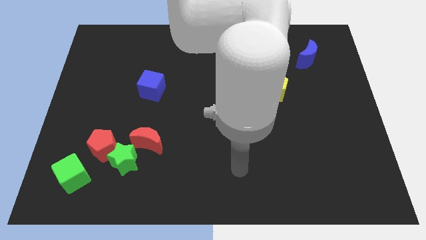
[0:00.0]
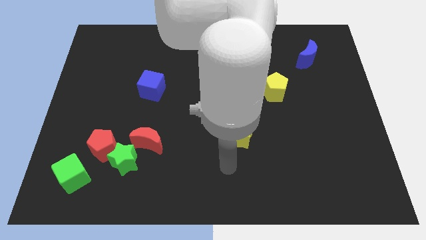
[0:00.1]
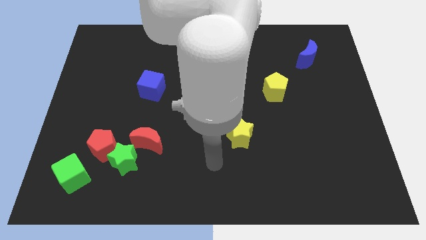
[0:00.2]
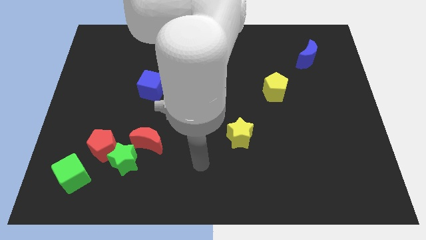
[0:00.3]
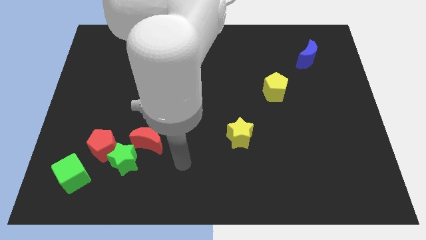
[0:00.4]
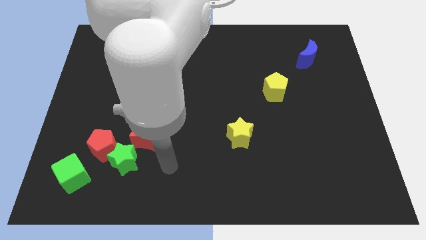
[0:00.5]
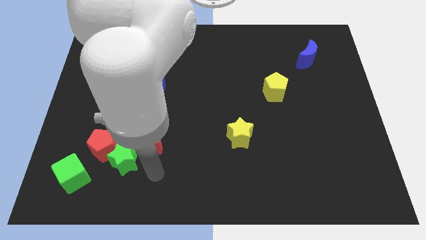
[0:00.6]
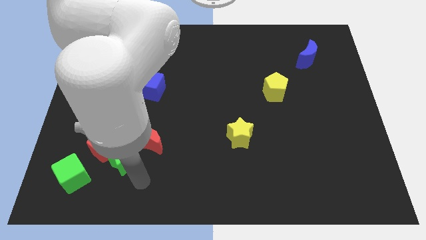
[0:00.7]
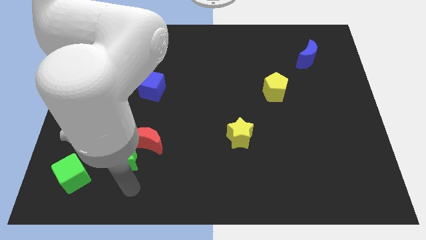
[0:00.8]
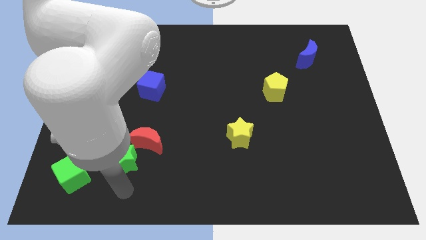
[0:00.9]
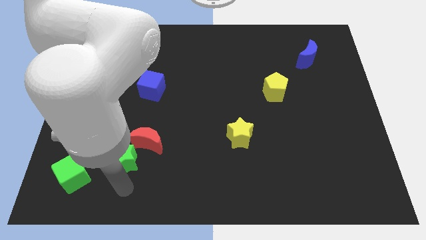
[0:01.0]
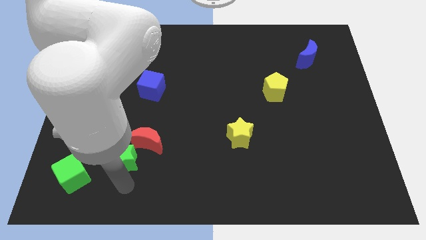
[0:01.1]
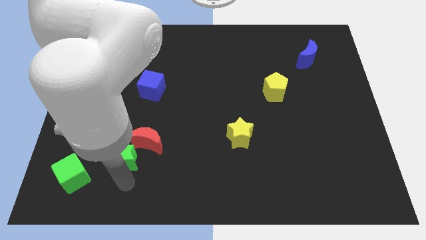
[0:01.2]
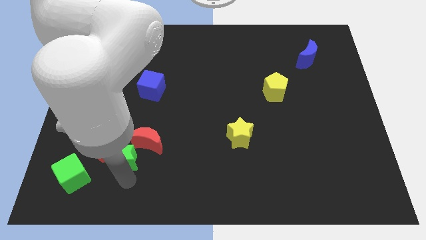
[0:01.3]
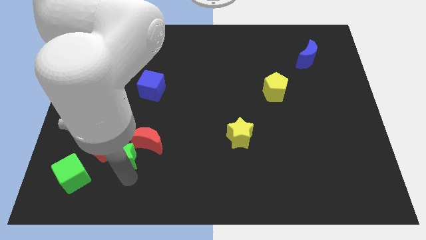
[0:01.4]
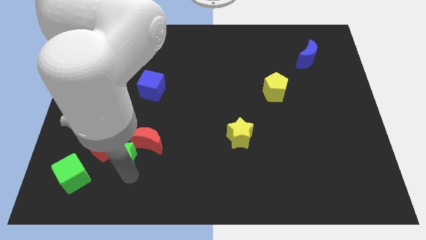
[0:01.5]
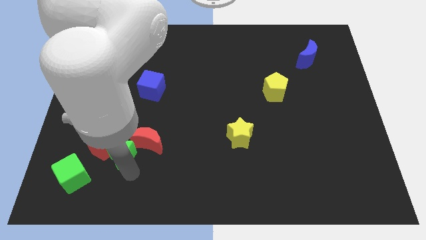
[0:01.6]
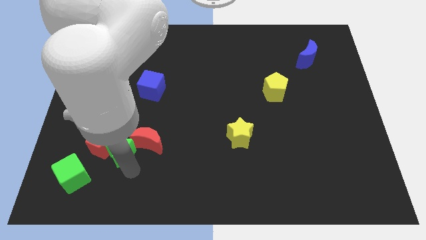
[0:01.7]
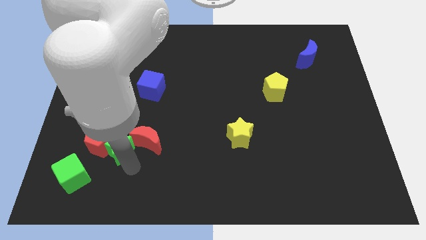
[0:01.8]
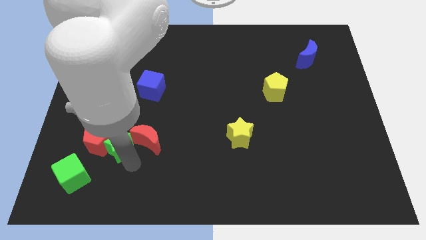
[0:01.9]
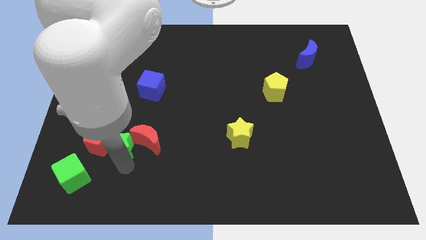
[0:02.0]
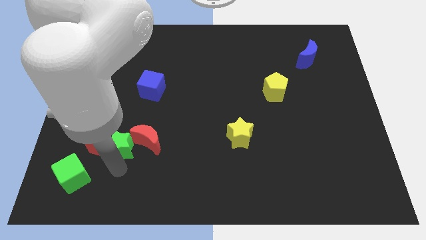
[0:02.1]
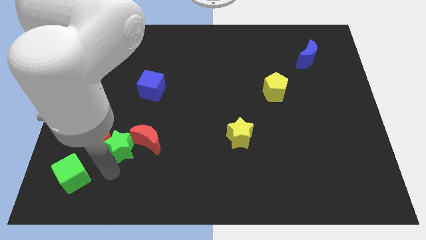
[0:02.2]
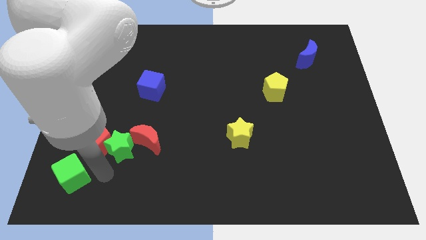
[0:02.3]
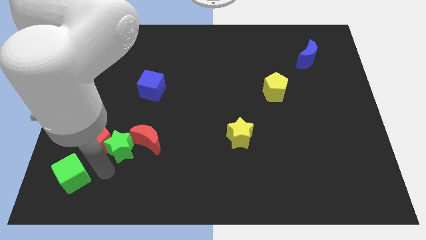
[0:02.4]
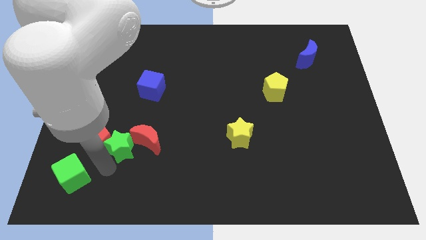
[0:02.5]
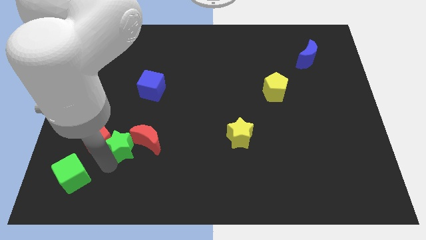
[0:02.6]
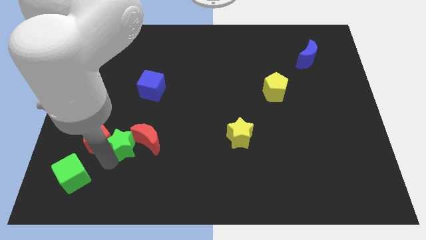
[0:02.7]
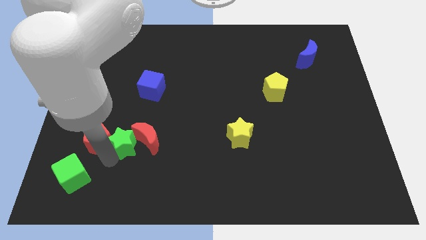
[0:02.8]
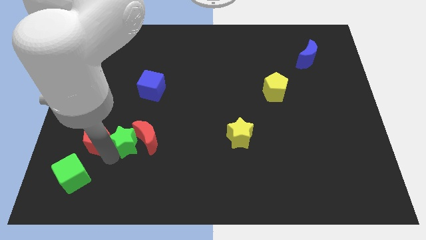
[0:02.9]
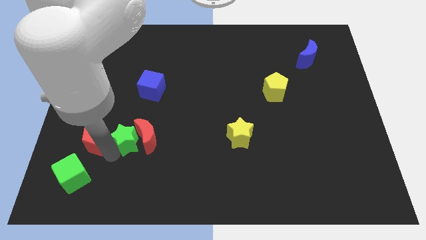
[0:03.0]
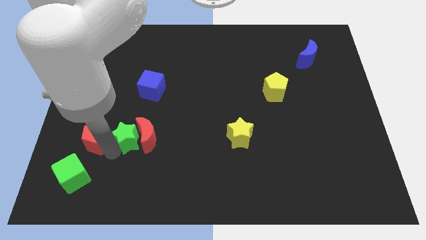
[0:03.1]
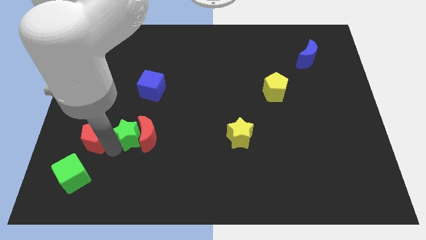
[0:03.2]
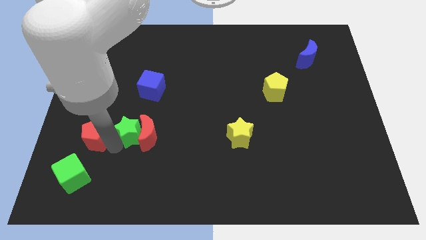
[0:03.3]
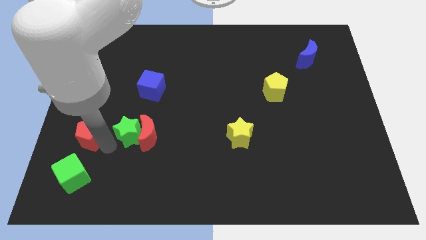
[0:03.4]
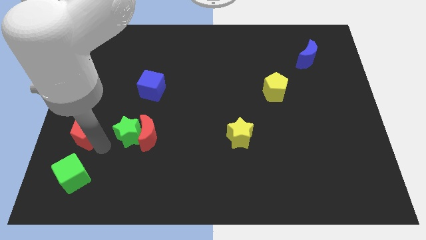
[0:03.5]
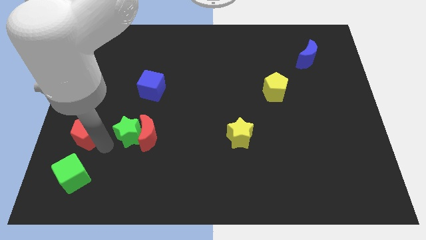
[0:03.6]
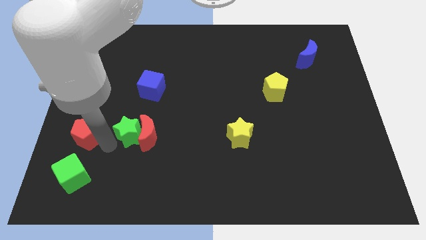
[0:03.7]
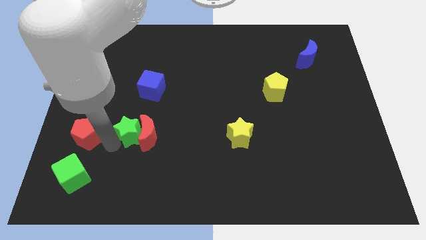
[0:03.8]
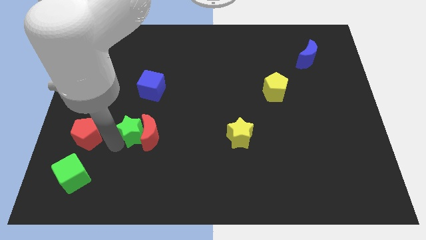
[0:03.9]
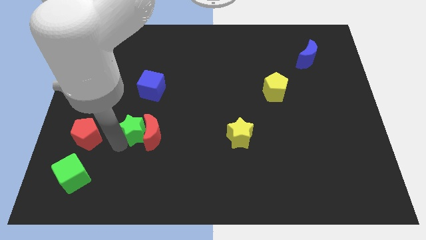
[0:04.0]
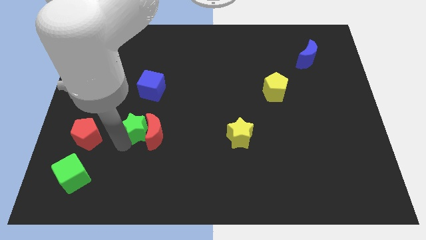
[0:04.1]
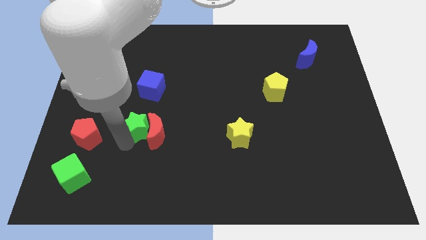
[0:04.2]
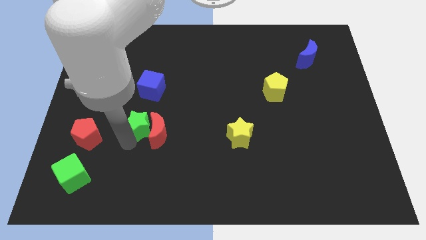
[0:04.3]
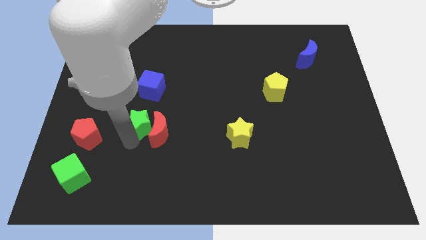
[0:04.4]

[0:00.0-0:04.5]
push the green star up and then right somewhat

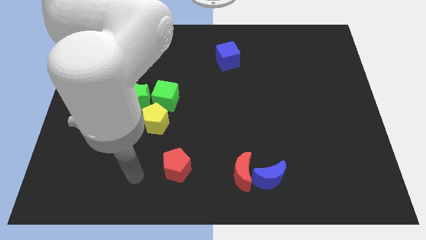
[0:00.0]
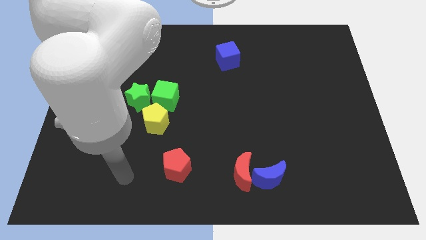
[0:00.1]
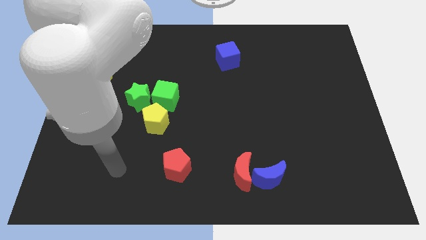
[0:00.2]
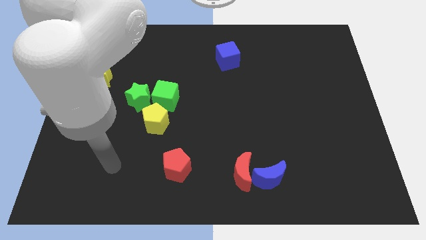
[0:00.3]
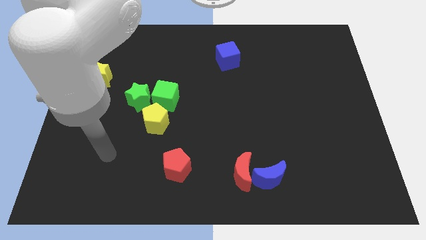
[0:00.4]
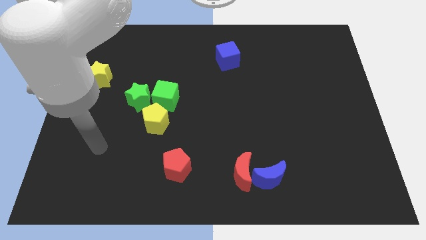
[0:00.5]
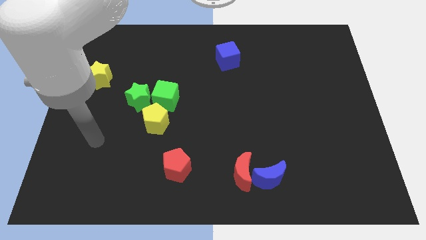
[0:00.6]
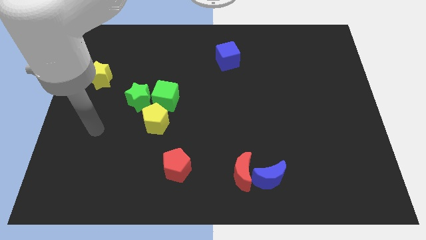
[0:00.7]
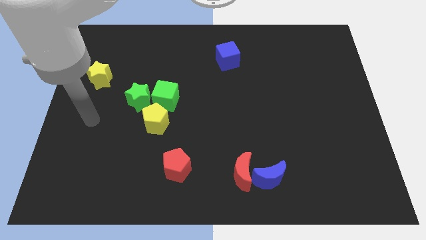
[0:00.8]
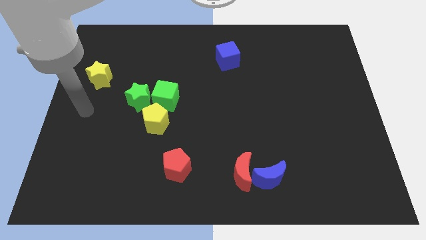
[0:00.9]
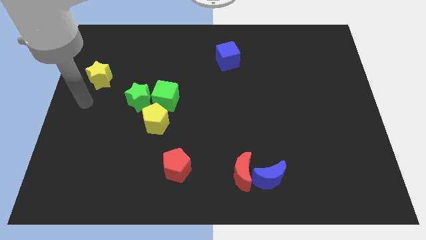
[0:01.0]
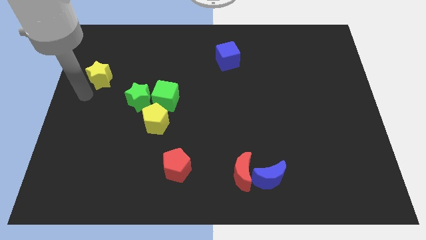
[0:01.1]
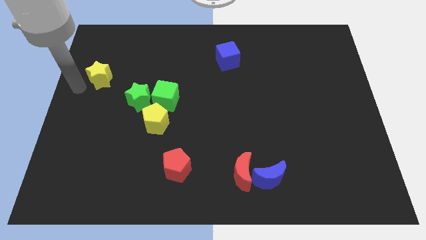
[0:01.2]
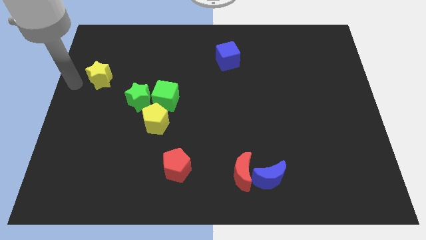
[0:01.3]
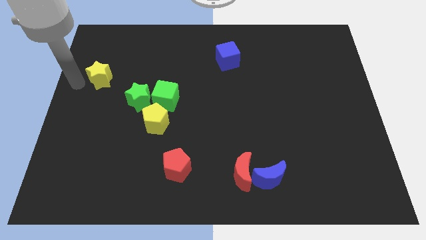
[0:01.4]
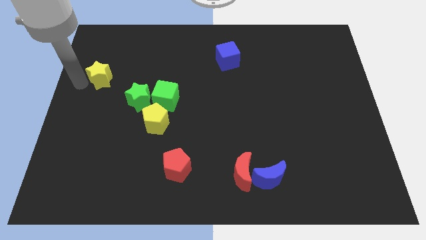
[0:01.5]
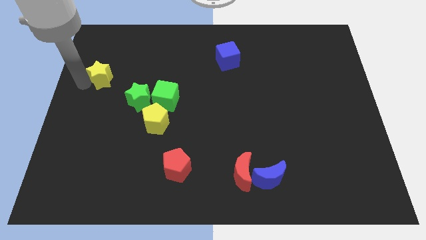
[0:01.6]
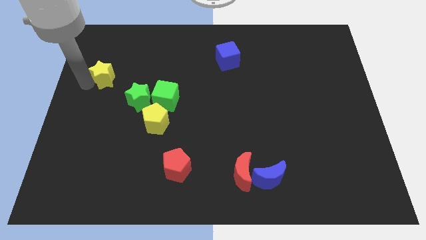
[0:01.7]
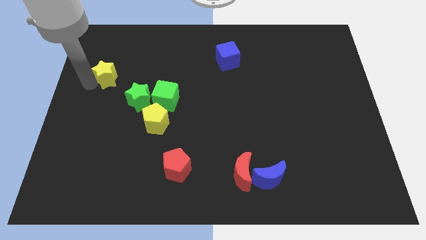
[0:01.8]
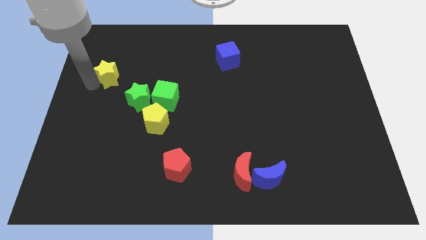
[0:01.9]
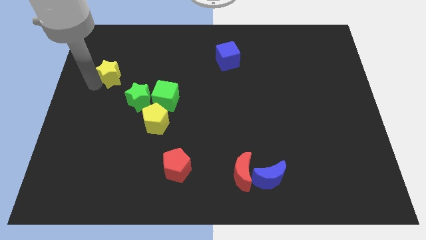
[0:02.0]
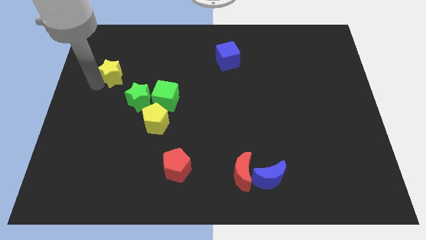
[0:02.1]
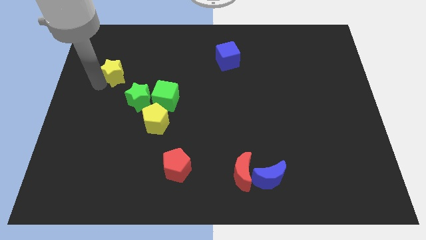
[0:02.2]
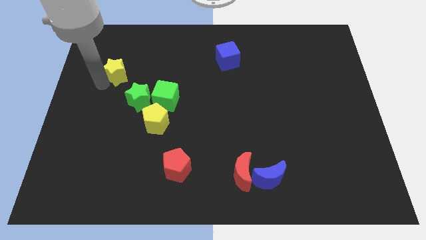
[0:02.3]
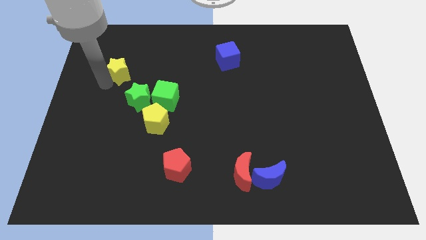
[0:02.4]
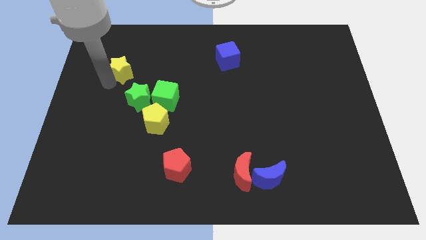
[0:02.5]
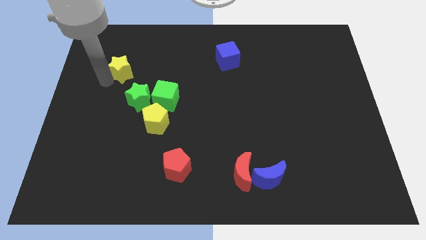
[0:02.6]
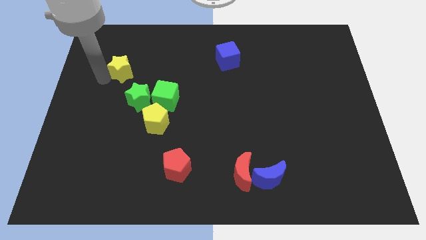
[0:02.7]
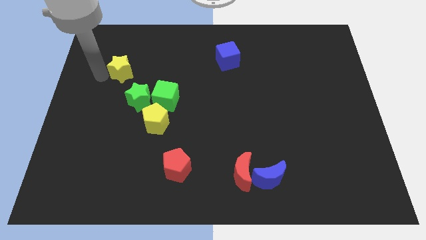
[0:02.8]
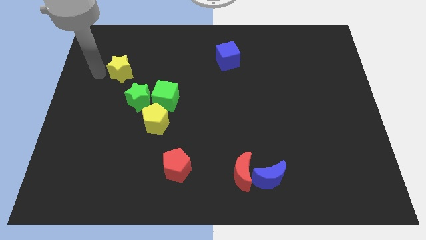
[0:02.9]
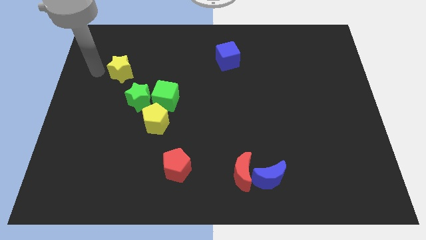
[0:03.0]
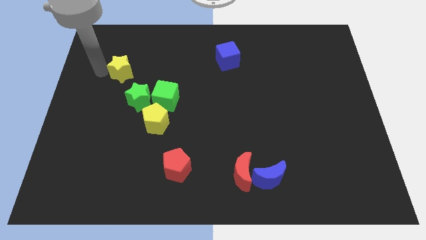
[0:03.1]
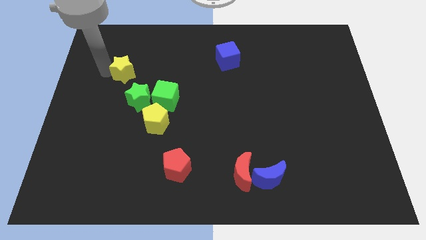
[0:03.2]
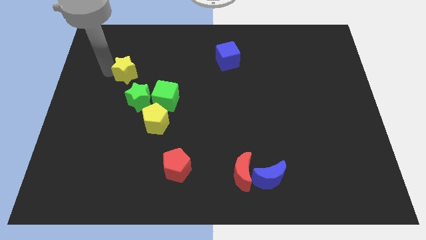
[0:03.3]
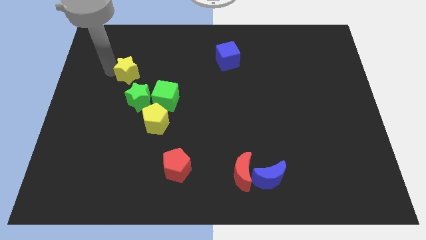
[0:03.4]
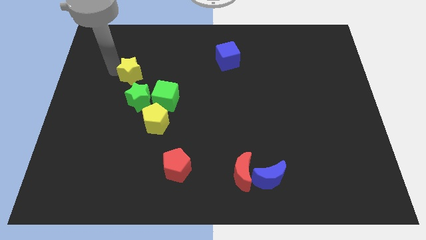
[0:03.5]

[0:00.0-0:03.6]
slide the yellow star to the right a little
